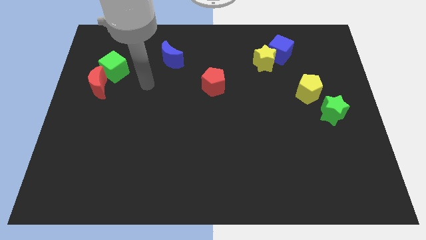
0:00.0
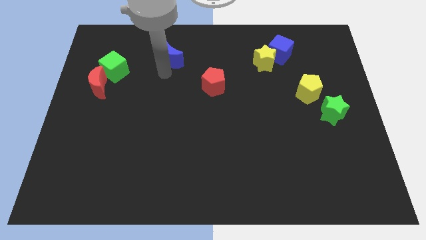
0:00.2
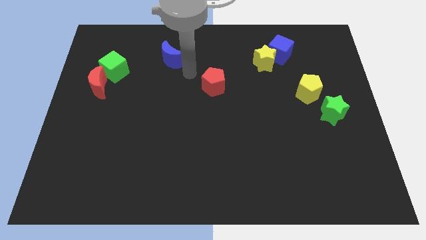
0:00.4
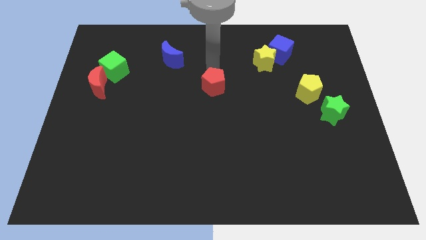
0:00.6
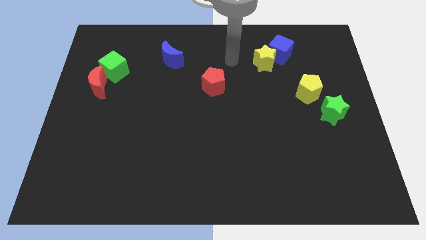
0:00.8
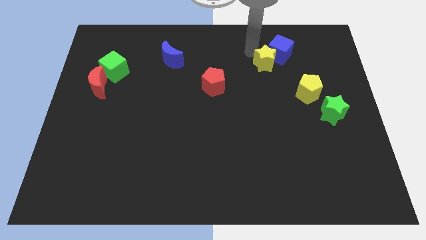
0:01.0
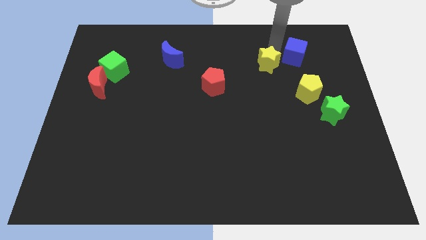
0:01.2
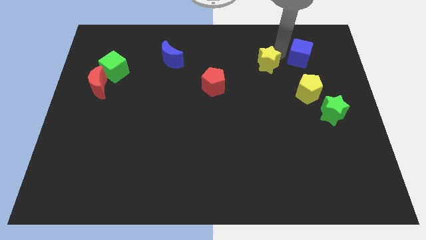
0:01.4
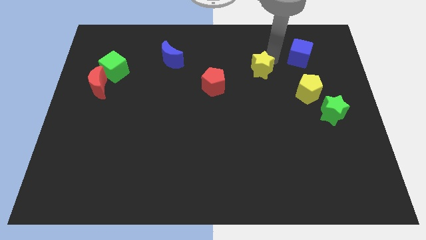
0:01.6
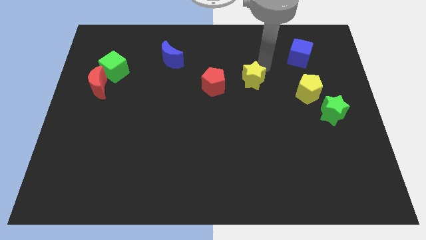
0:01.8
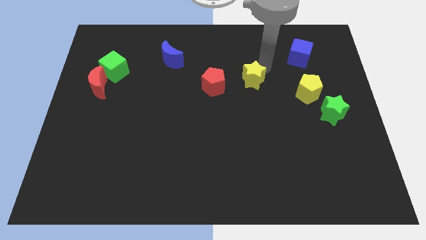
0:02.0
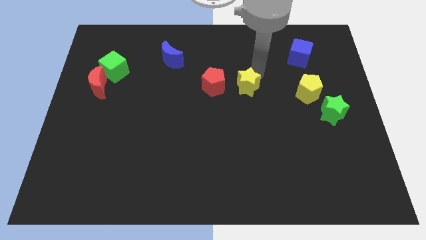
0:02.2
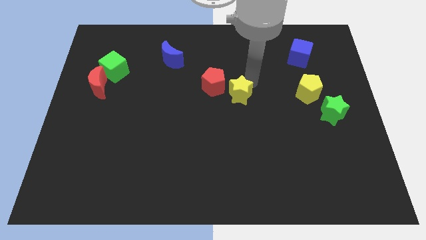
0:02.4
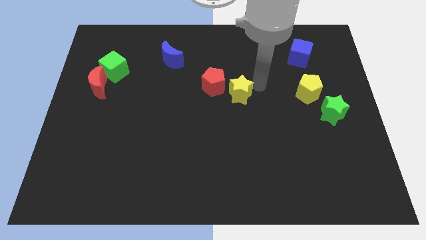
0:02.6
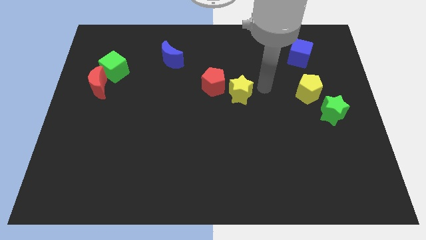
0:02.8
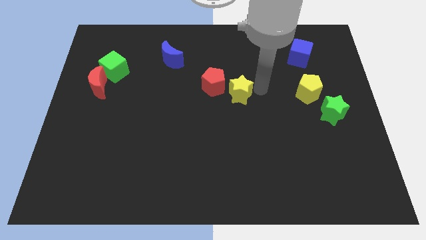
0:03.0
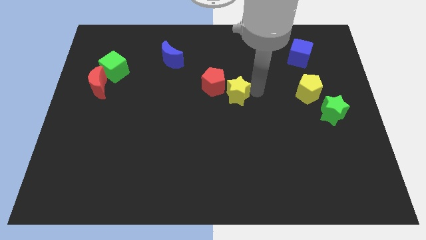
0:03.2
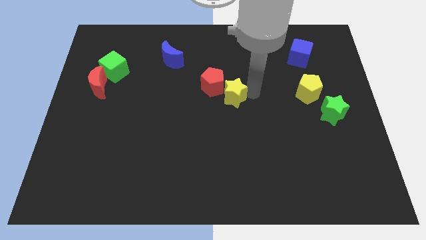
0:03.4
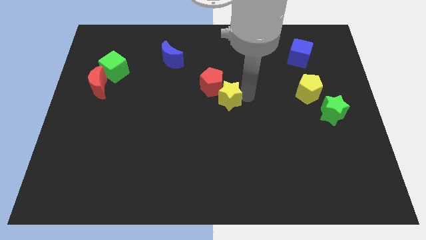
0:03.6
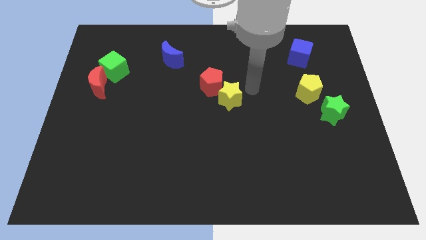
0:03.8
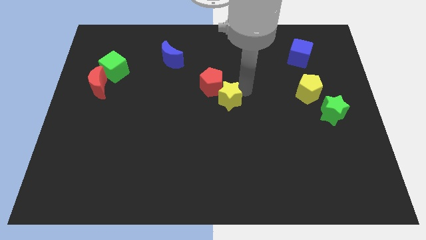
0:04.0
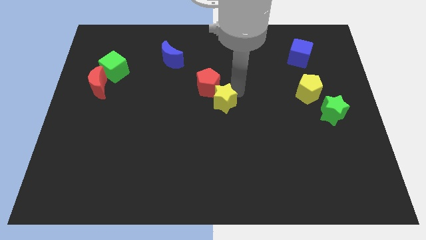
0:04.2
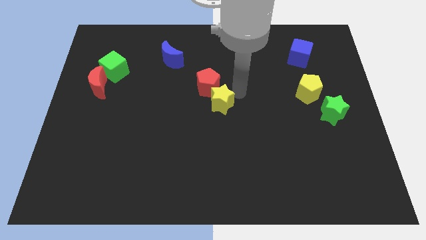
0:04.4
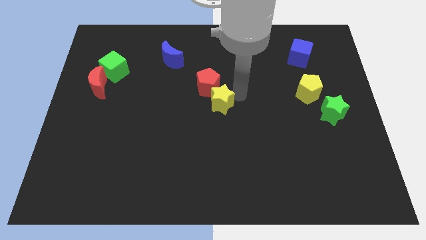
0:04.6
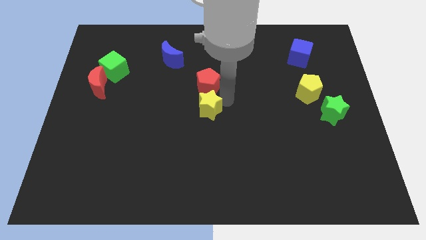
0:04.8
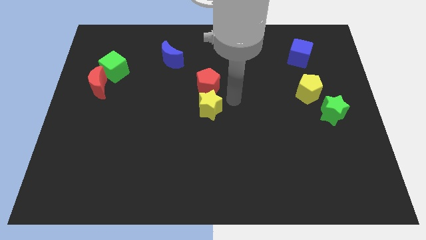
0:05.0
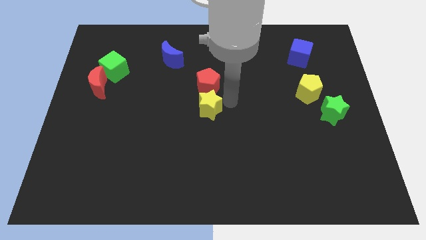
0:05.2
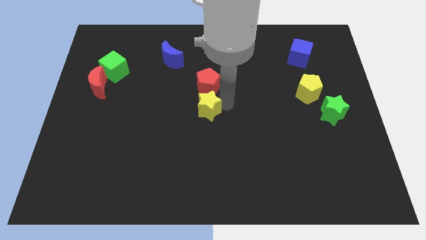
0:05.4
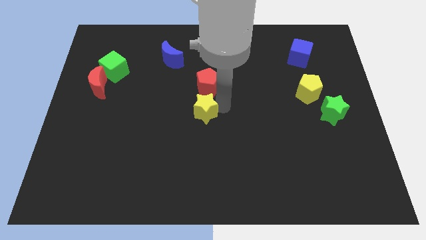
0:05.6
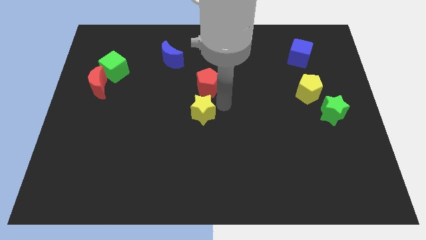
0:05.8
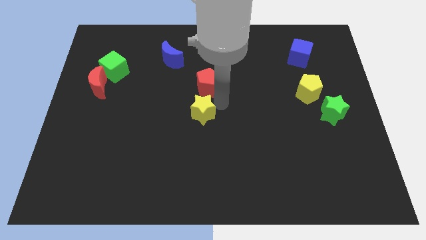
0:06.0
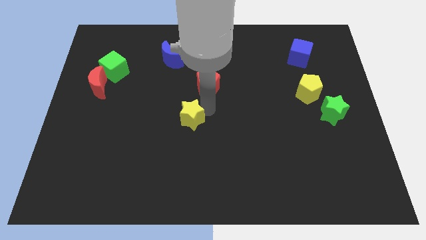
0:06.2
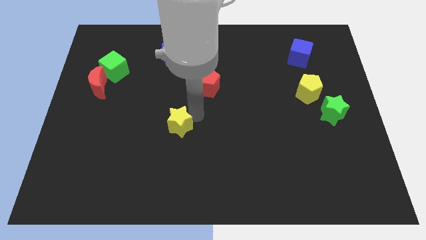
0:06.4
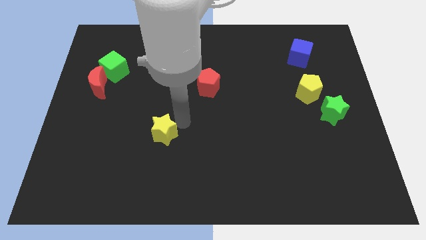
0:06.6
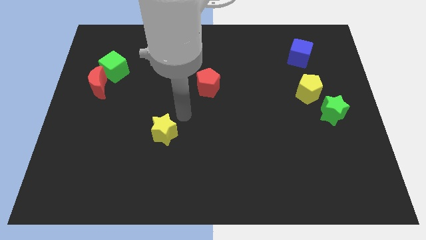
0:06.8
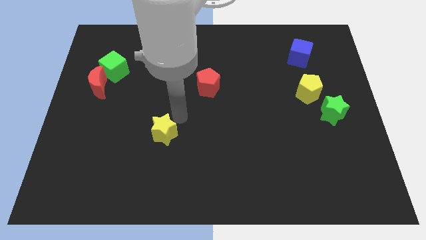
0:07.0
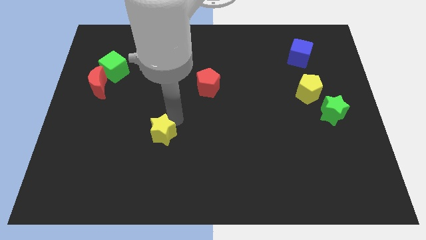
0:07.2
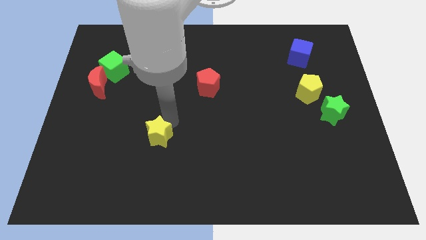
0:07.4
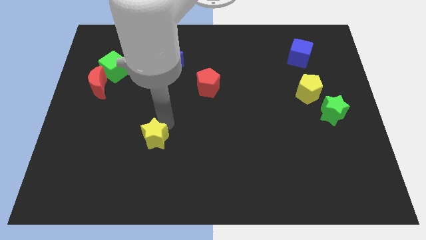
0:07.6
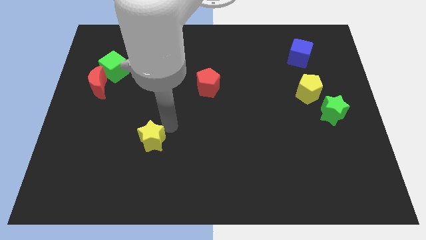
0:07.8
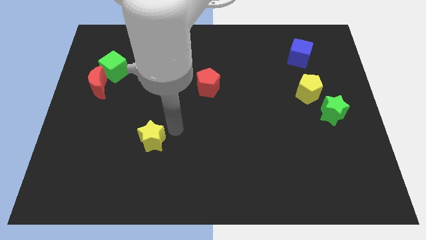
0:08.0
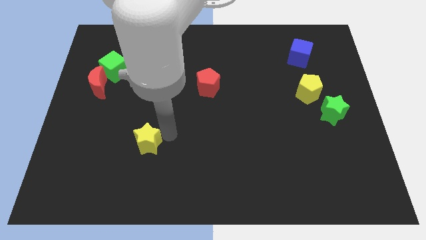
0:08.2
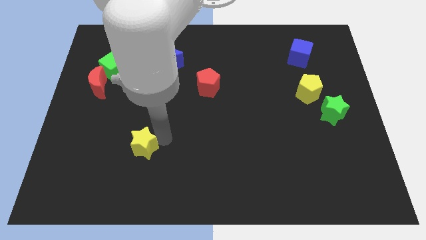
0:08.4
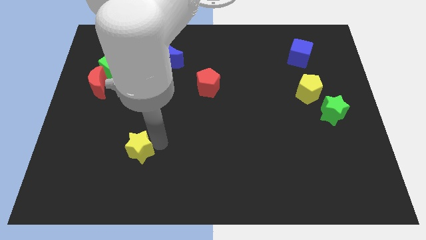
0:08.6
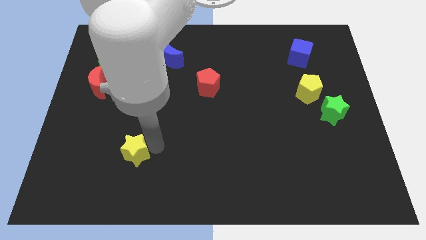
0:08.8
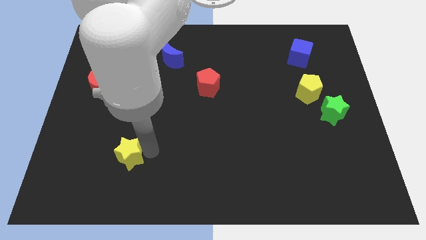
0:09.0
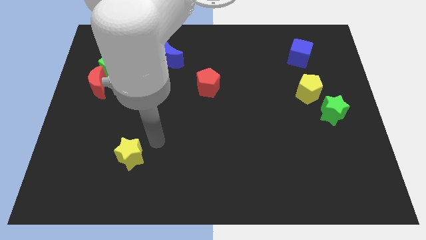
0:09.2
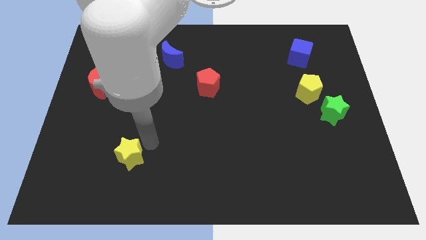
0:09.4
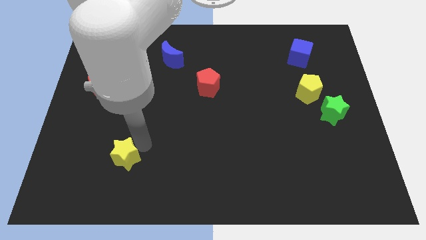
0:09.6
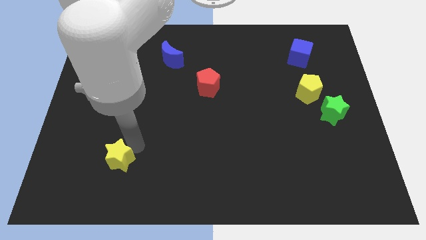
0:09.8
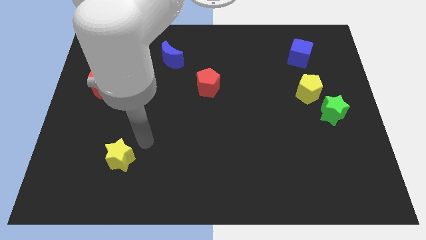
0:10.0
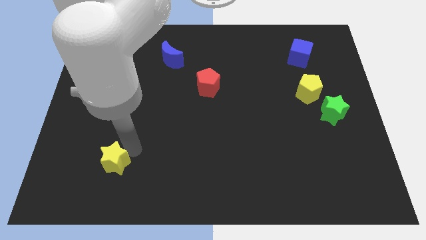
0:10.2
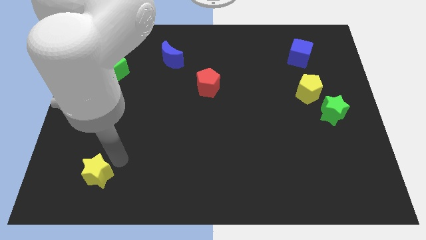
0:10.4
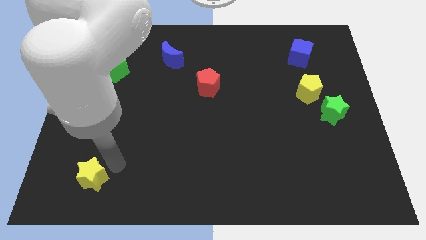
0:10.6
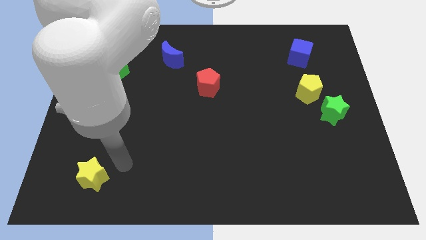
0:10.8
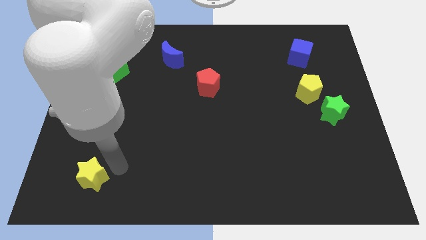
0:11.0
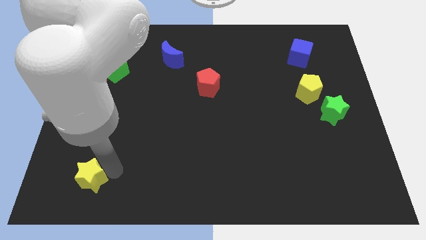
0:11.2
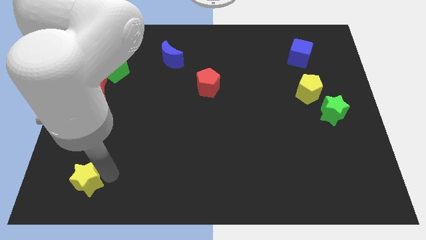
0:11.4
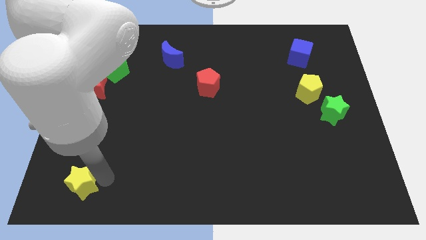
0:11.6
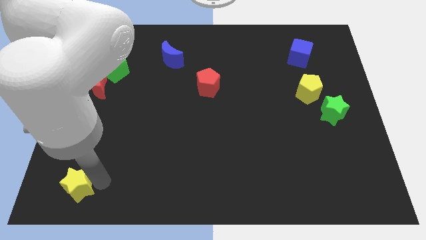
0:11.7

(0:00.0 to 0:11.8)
slide the yellow star to the lower left corner

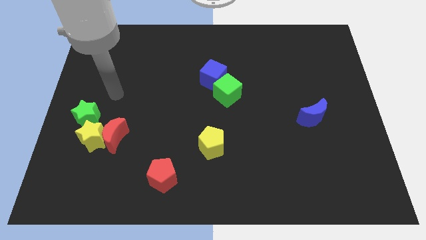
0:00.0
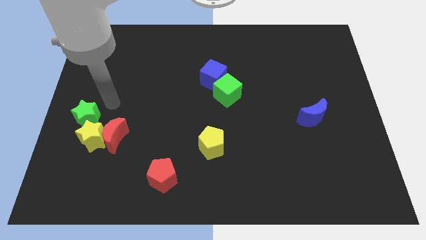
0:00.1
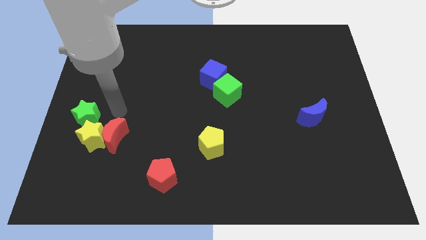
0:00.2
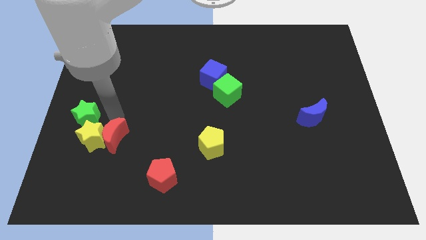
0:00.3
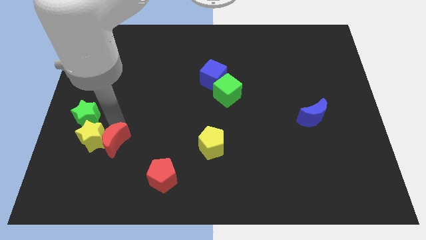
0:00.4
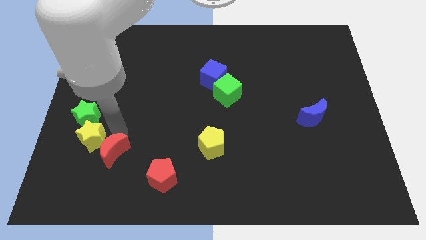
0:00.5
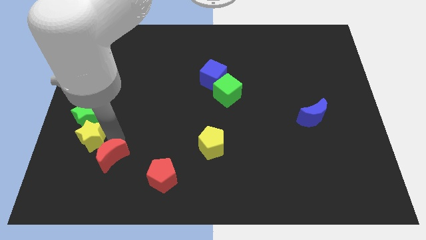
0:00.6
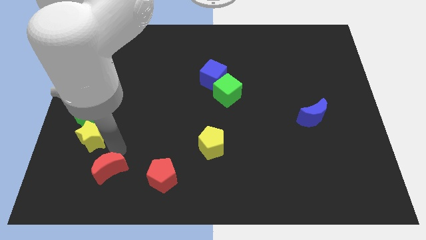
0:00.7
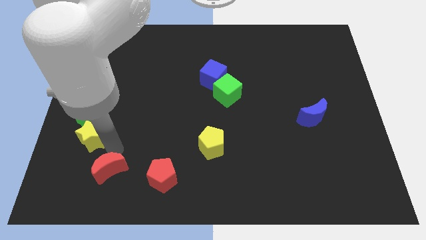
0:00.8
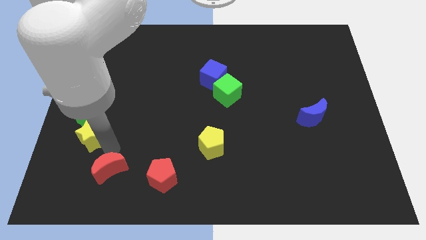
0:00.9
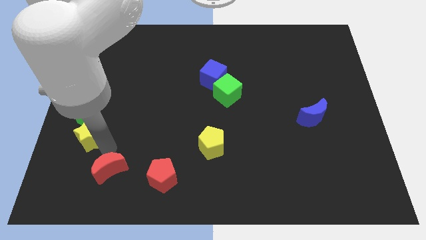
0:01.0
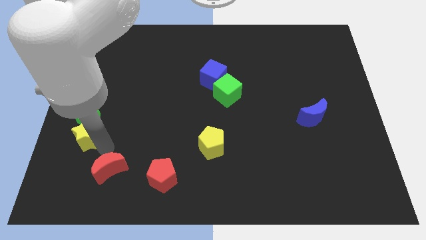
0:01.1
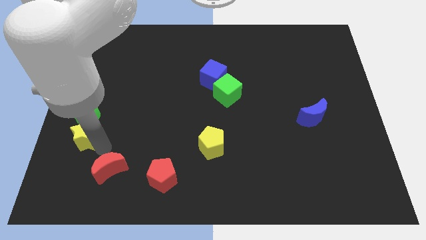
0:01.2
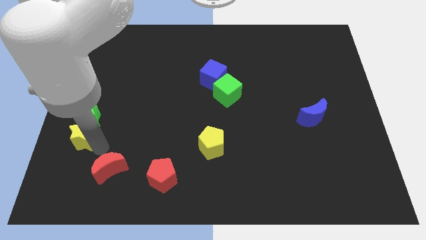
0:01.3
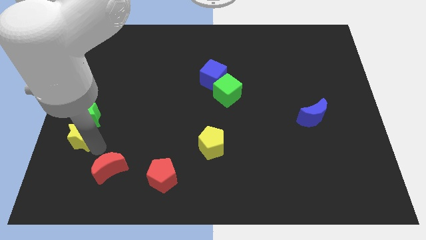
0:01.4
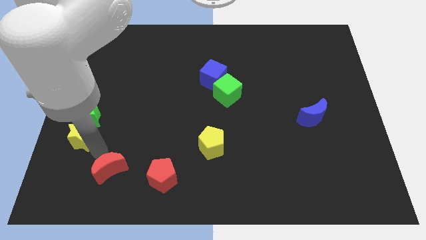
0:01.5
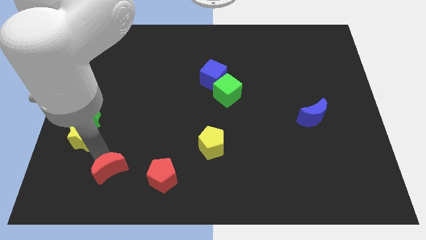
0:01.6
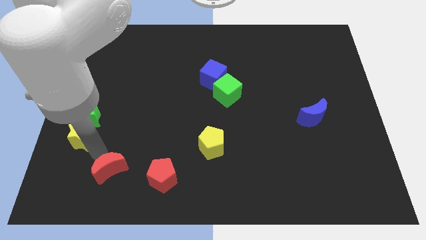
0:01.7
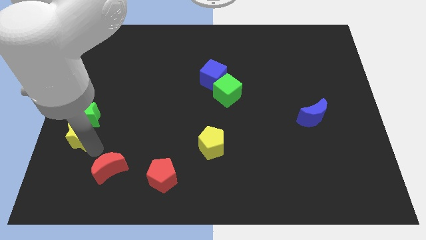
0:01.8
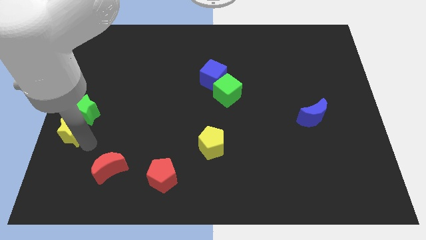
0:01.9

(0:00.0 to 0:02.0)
slide the yellow star to the left side of the board

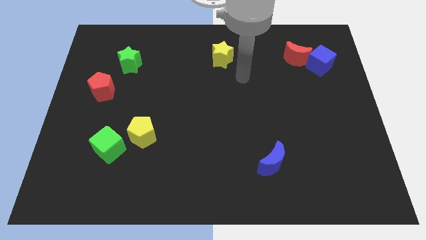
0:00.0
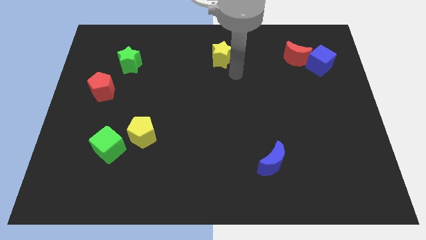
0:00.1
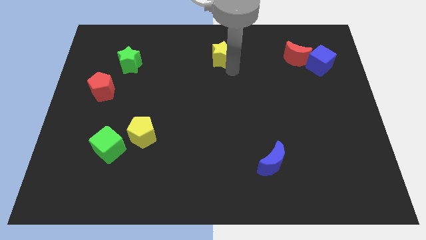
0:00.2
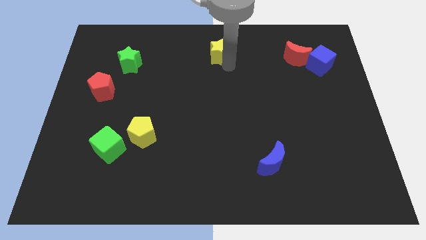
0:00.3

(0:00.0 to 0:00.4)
slide the yellow star to the top
